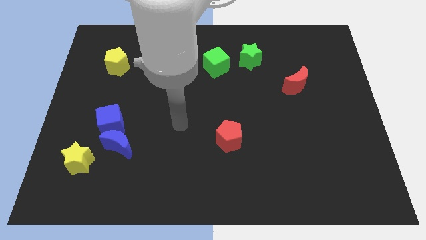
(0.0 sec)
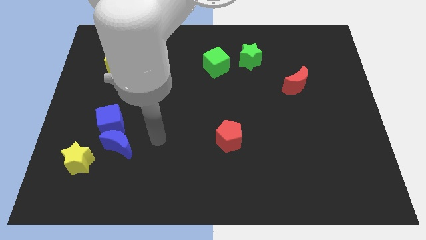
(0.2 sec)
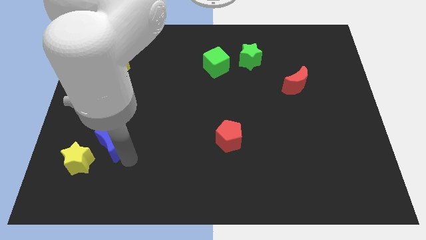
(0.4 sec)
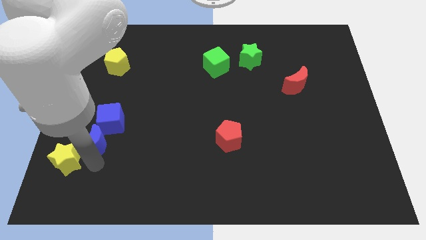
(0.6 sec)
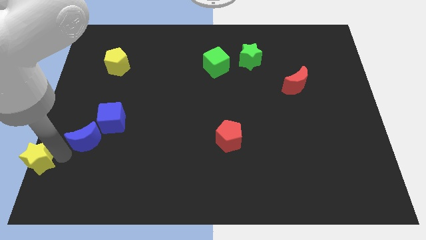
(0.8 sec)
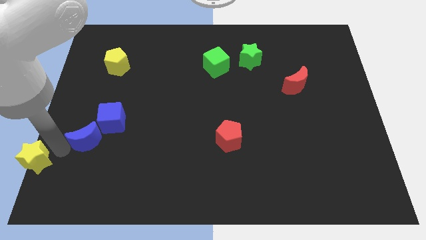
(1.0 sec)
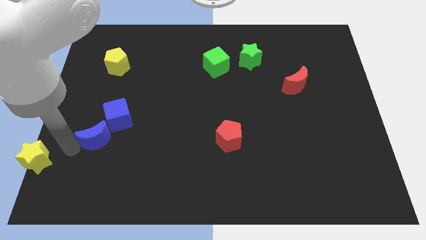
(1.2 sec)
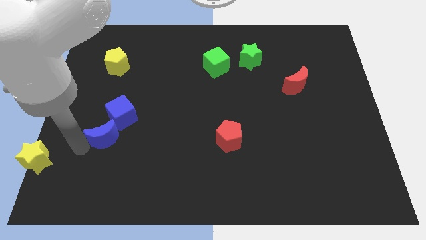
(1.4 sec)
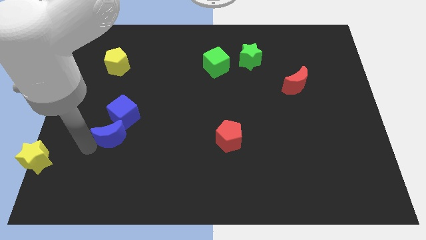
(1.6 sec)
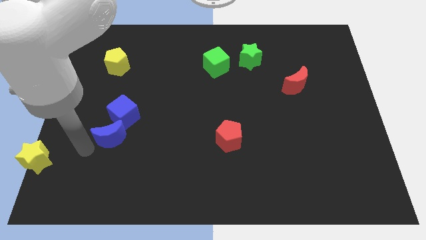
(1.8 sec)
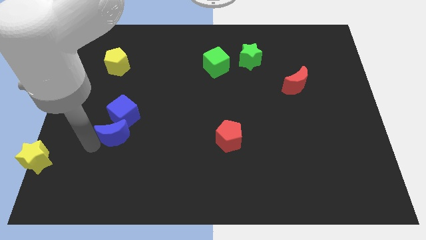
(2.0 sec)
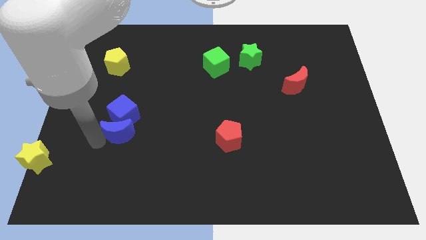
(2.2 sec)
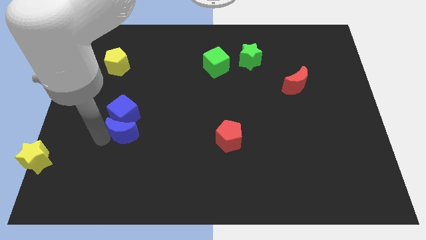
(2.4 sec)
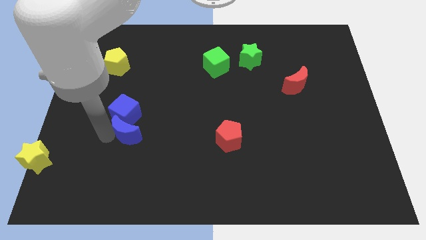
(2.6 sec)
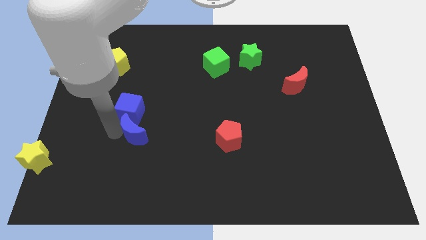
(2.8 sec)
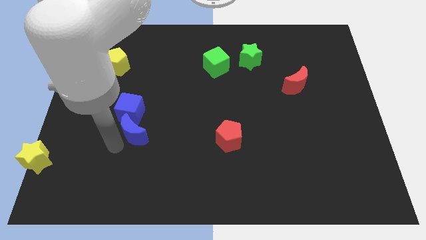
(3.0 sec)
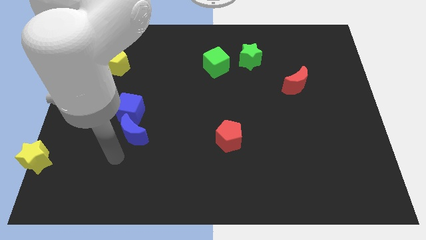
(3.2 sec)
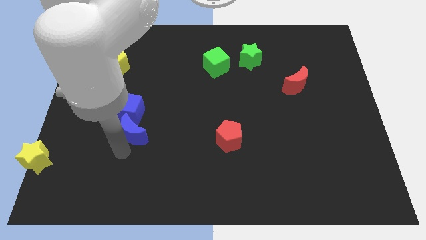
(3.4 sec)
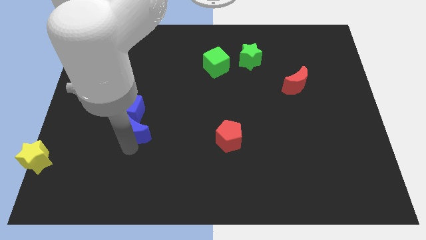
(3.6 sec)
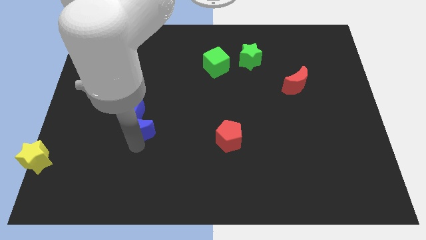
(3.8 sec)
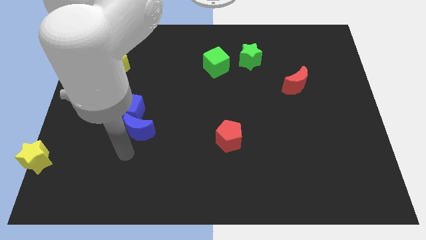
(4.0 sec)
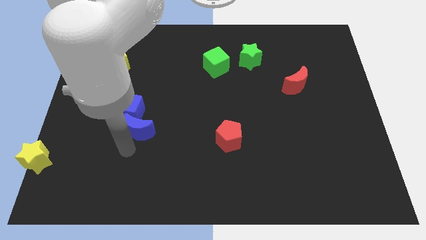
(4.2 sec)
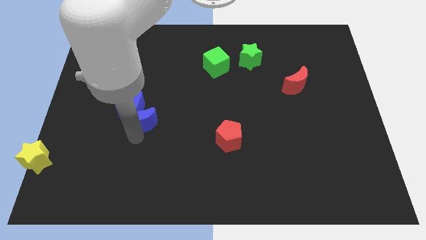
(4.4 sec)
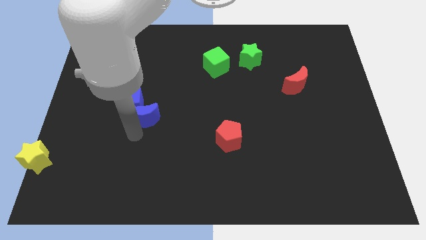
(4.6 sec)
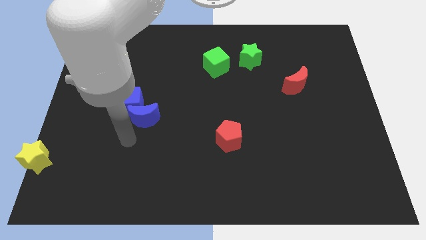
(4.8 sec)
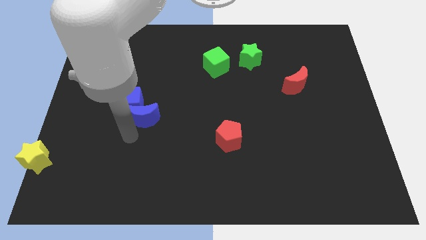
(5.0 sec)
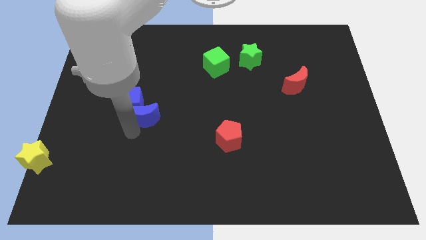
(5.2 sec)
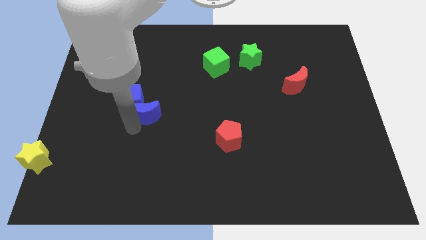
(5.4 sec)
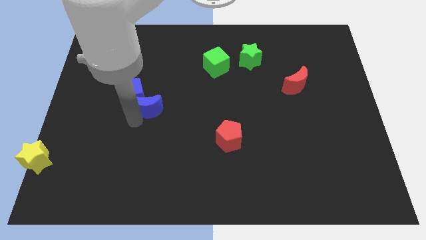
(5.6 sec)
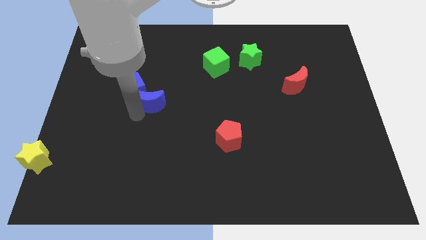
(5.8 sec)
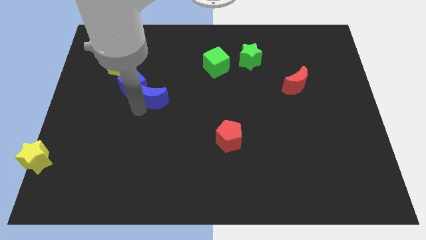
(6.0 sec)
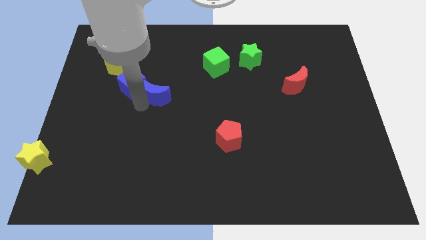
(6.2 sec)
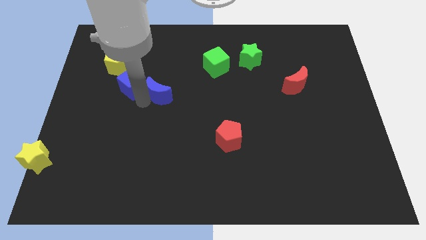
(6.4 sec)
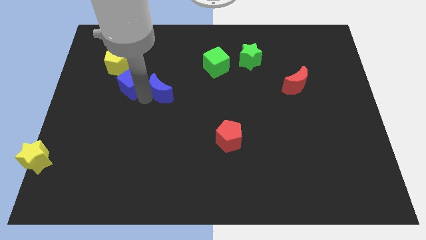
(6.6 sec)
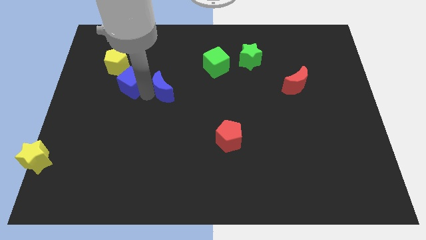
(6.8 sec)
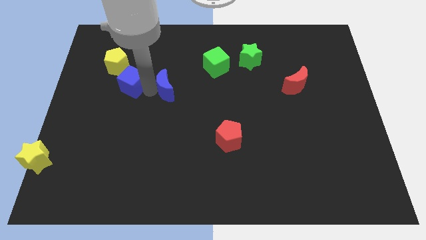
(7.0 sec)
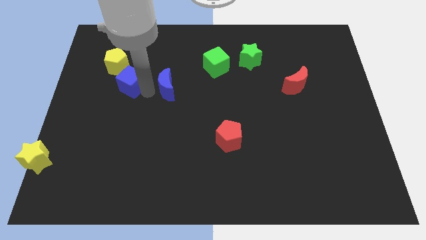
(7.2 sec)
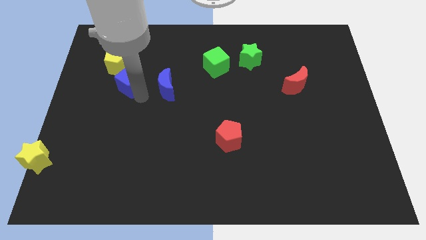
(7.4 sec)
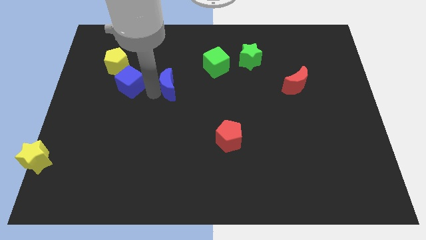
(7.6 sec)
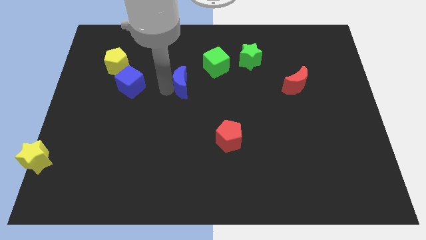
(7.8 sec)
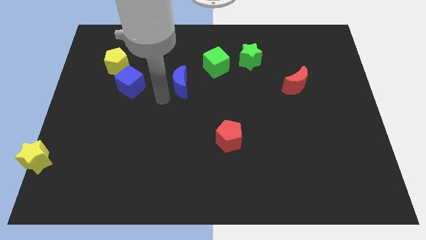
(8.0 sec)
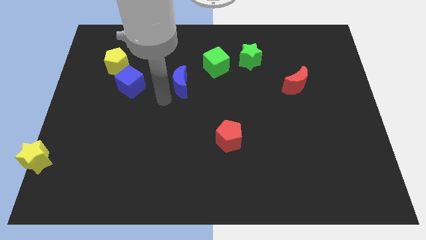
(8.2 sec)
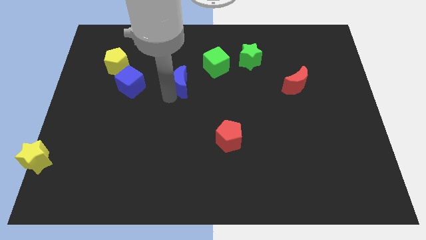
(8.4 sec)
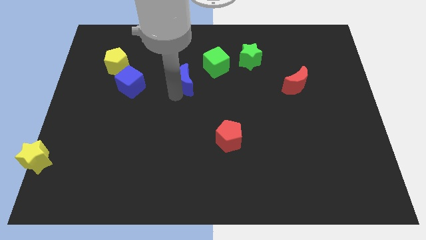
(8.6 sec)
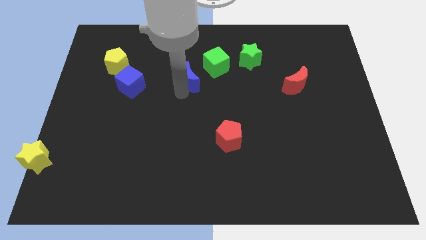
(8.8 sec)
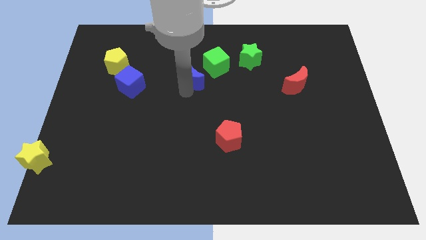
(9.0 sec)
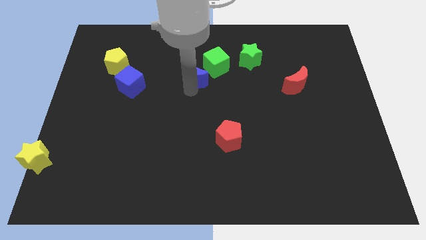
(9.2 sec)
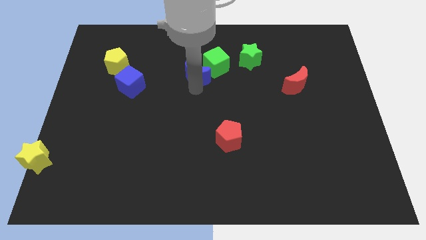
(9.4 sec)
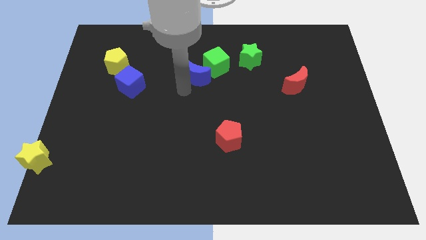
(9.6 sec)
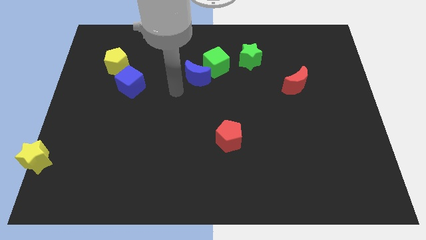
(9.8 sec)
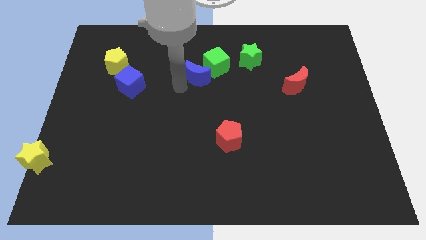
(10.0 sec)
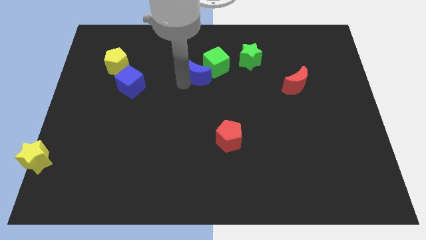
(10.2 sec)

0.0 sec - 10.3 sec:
put the blue moon close to the green cube

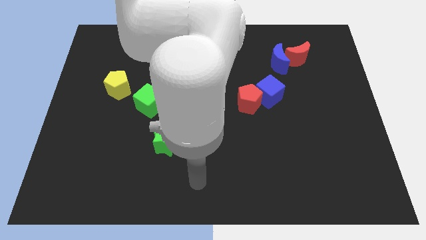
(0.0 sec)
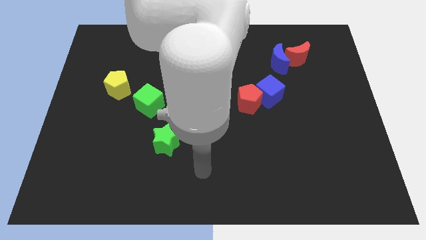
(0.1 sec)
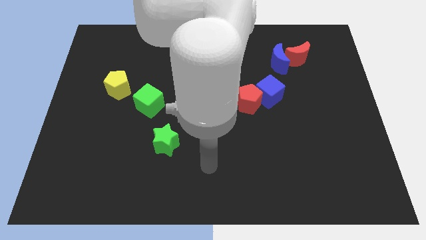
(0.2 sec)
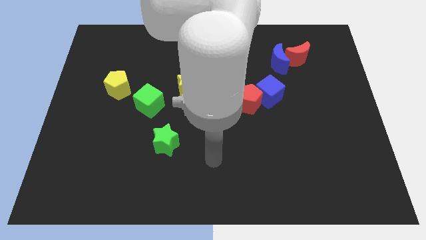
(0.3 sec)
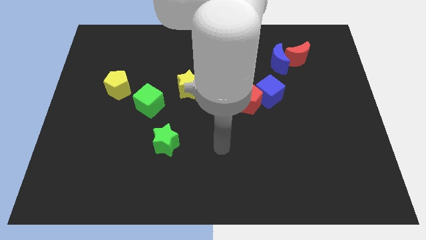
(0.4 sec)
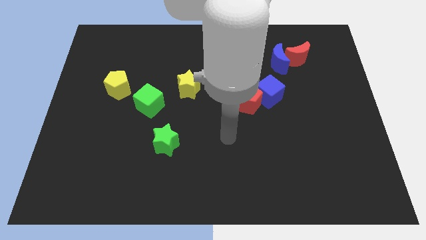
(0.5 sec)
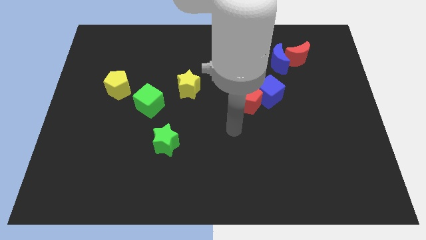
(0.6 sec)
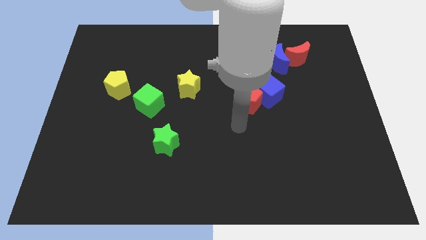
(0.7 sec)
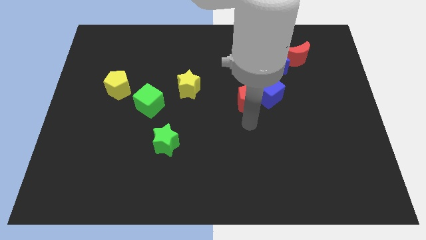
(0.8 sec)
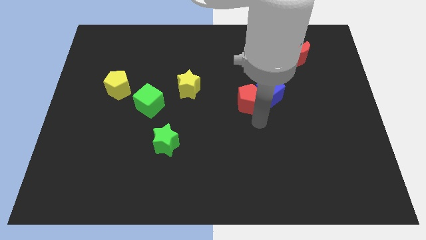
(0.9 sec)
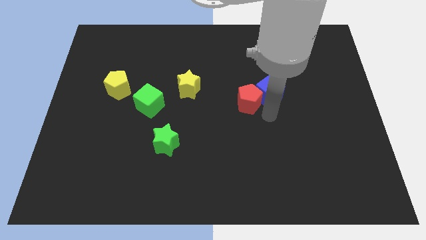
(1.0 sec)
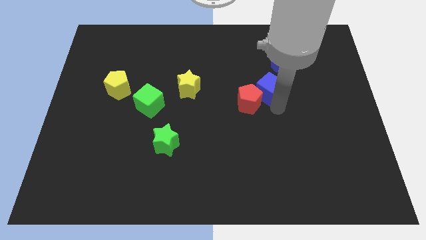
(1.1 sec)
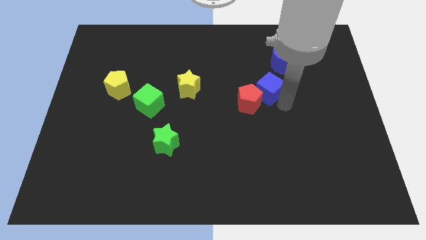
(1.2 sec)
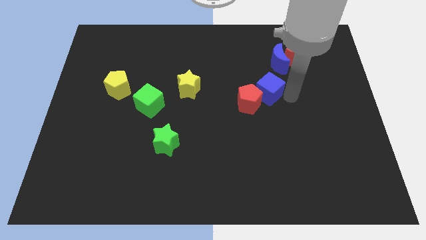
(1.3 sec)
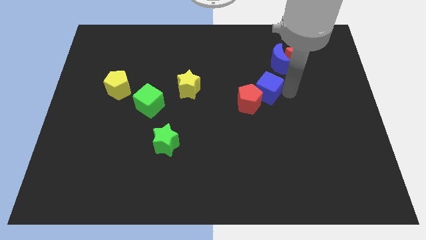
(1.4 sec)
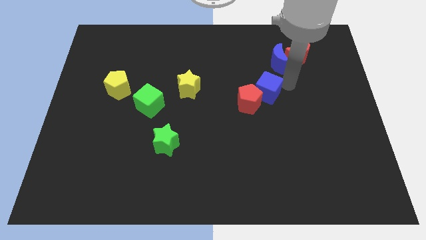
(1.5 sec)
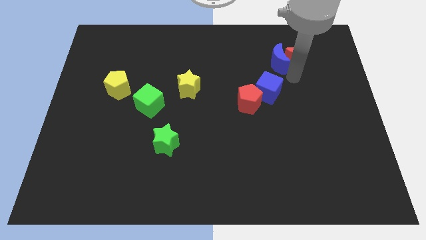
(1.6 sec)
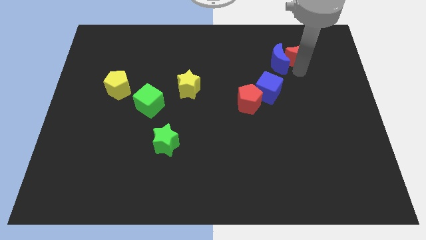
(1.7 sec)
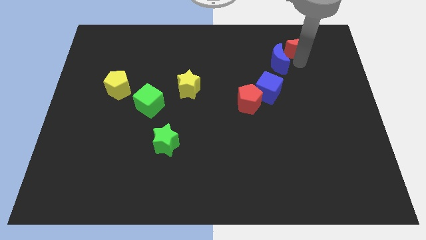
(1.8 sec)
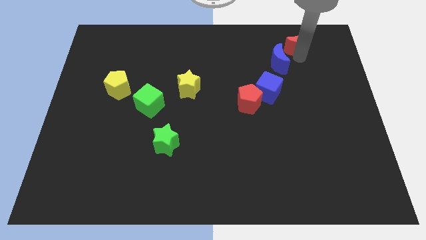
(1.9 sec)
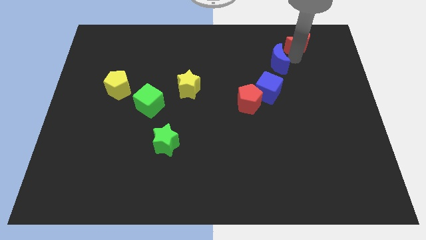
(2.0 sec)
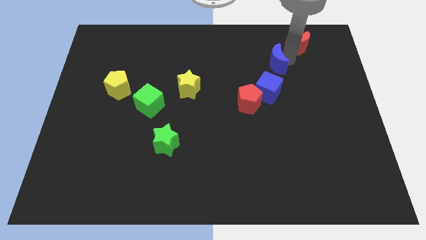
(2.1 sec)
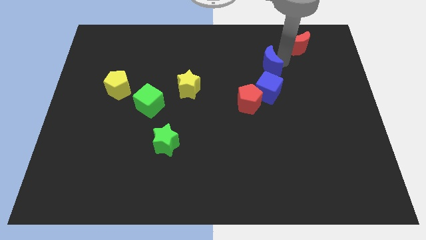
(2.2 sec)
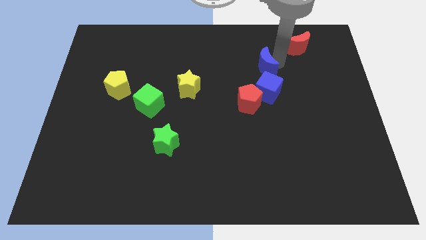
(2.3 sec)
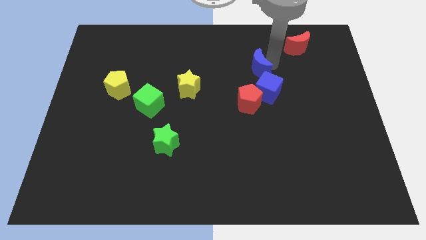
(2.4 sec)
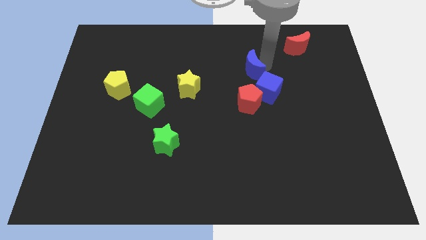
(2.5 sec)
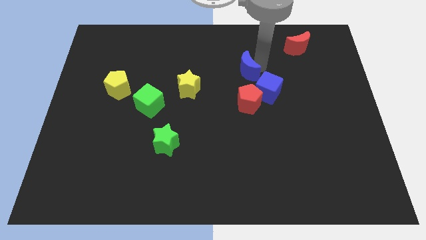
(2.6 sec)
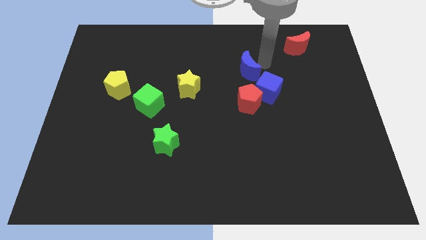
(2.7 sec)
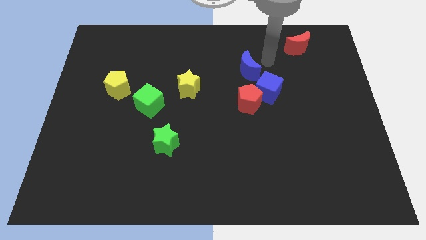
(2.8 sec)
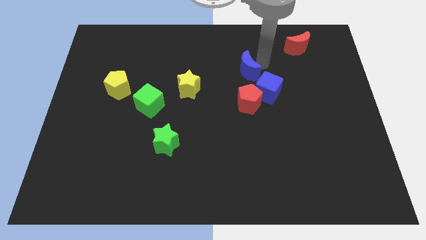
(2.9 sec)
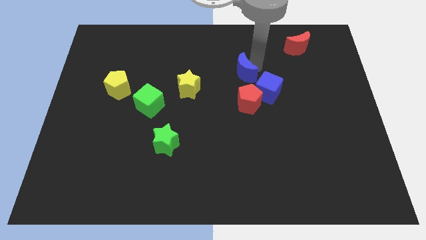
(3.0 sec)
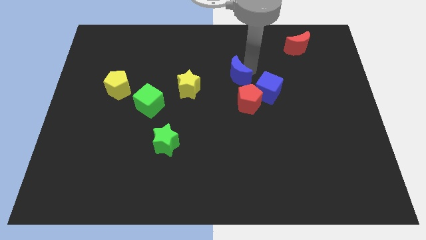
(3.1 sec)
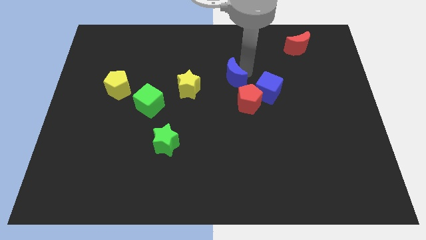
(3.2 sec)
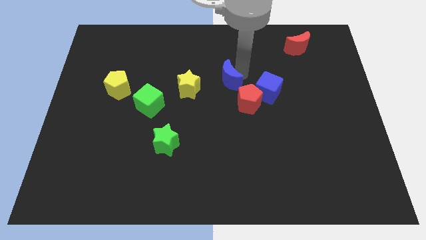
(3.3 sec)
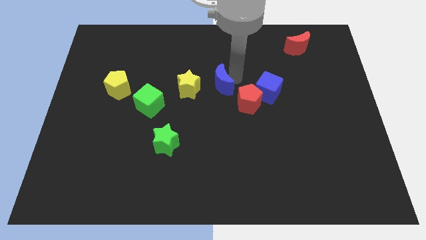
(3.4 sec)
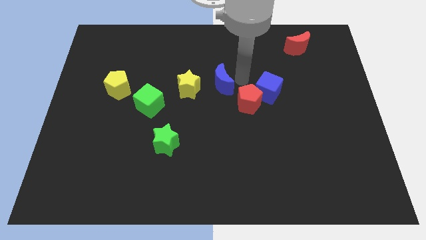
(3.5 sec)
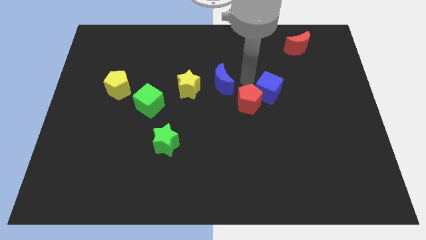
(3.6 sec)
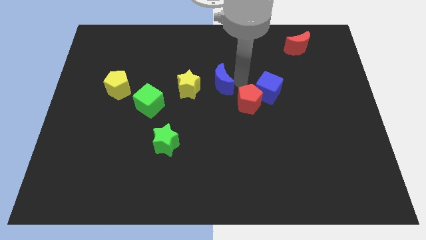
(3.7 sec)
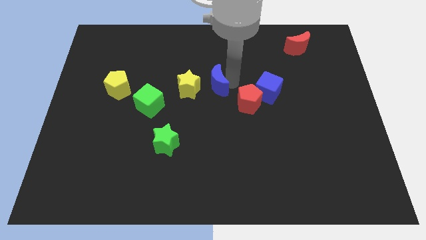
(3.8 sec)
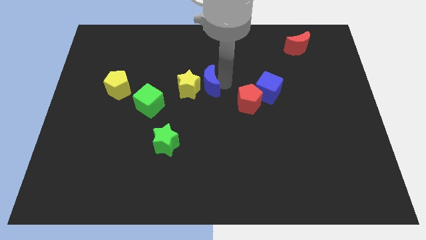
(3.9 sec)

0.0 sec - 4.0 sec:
put the blue moon towards the yellow star
